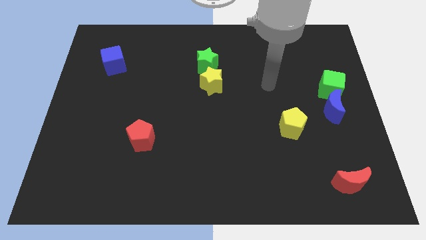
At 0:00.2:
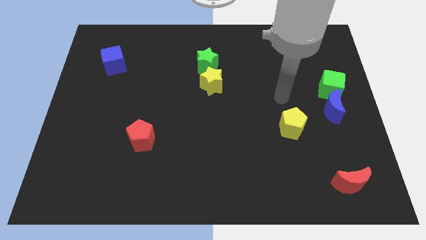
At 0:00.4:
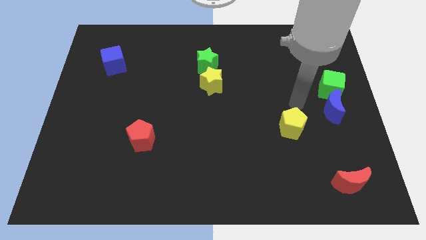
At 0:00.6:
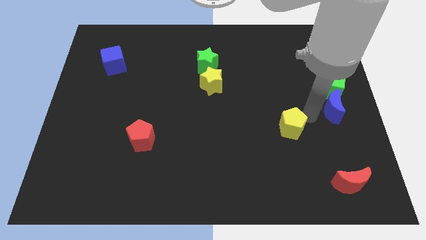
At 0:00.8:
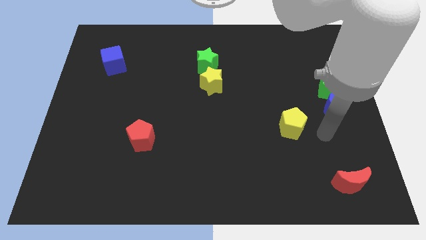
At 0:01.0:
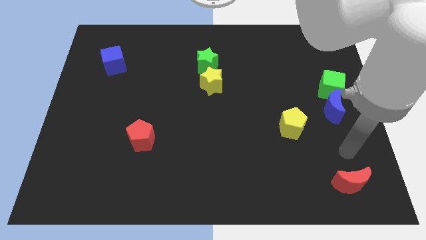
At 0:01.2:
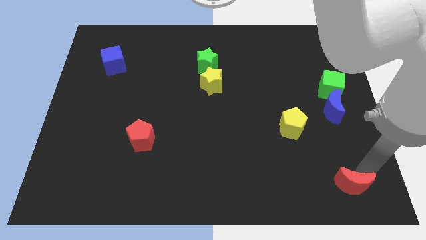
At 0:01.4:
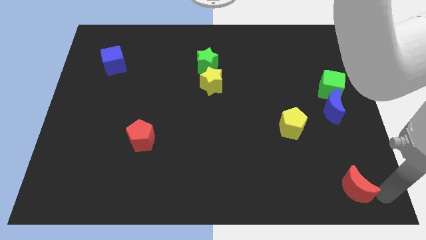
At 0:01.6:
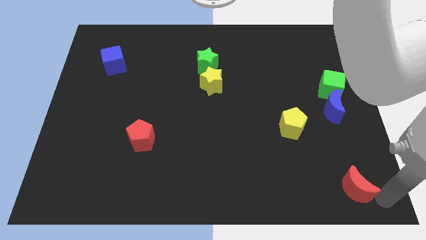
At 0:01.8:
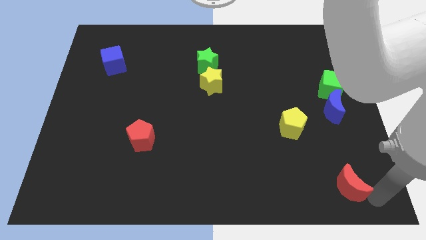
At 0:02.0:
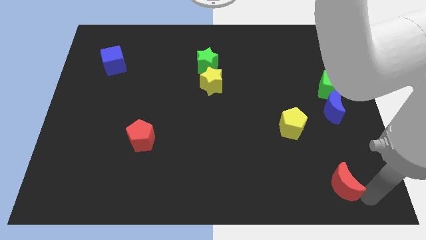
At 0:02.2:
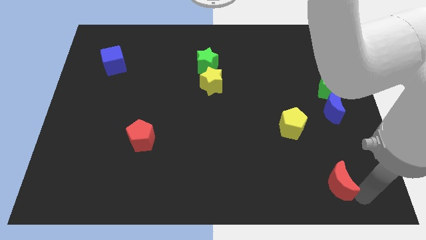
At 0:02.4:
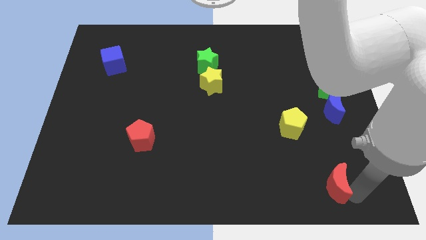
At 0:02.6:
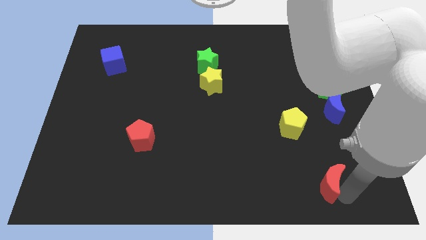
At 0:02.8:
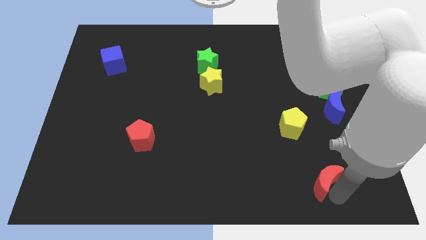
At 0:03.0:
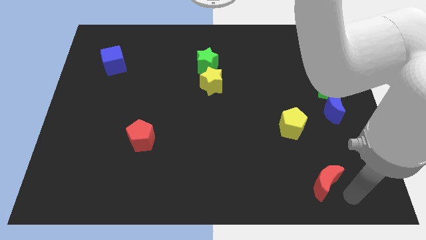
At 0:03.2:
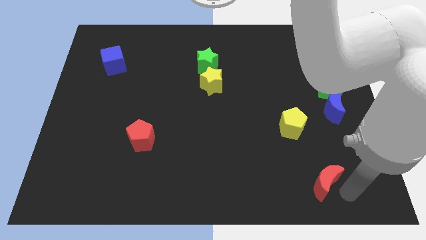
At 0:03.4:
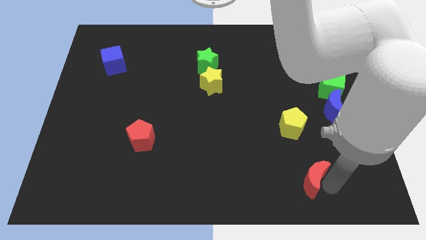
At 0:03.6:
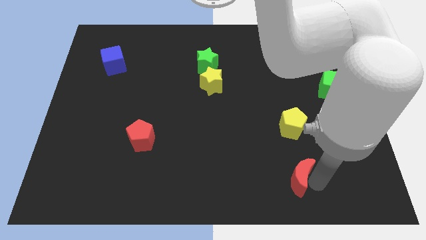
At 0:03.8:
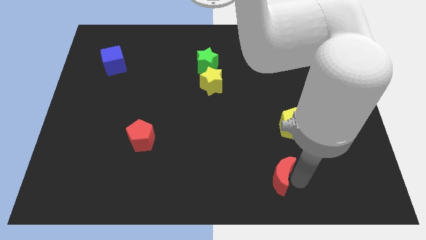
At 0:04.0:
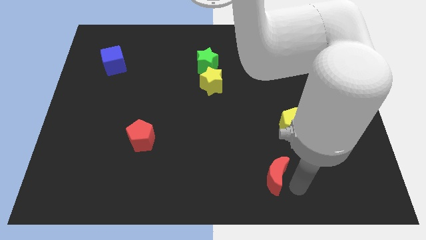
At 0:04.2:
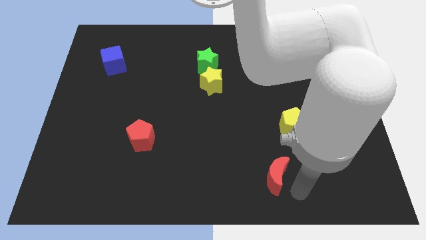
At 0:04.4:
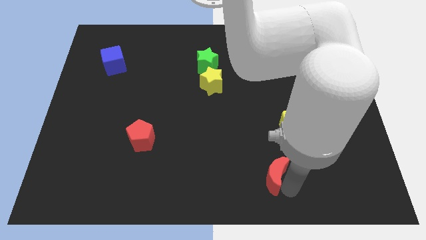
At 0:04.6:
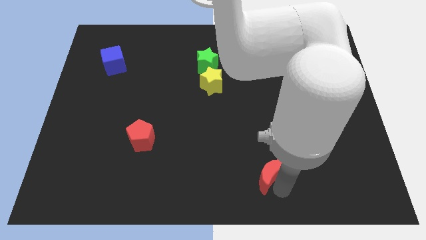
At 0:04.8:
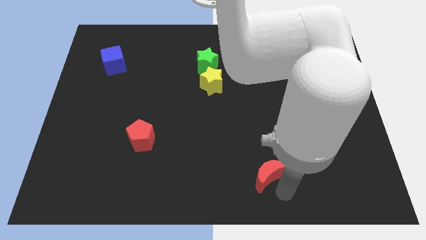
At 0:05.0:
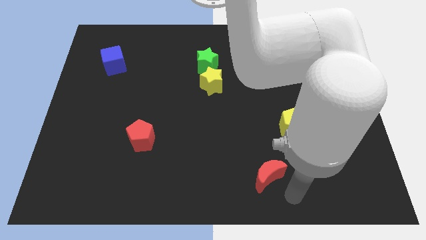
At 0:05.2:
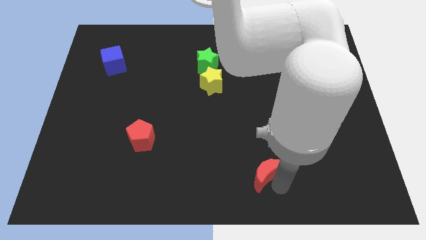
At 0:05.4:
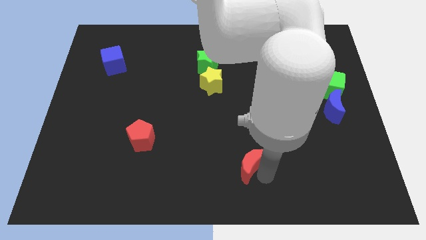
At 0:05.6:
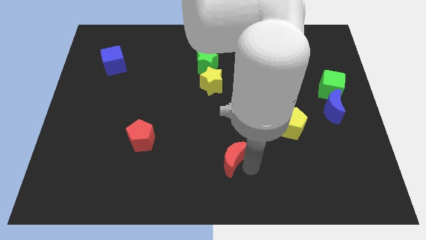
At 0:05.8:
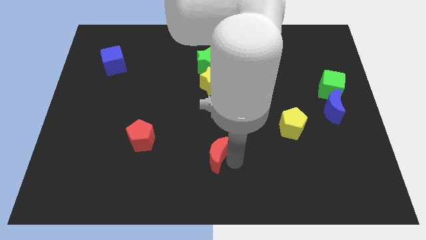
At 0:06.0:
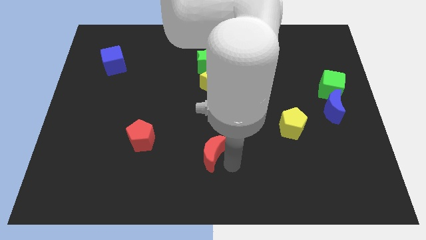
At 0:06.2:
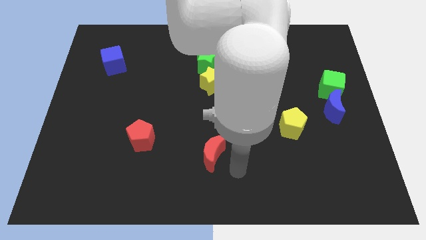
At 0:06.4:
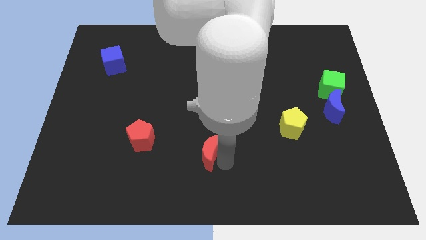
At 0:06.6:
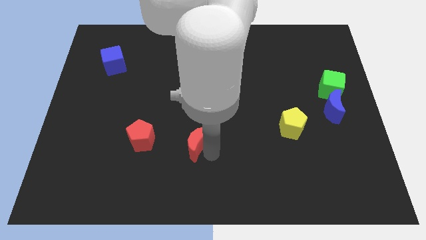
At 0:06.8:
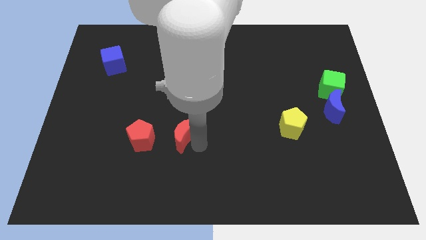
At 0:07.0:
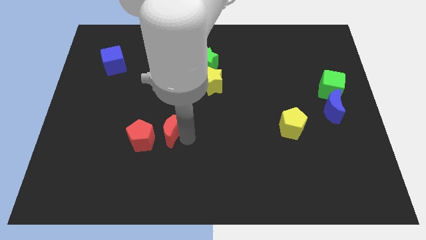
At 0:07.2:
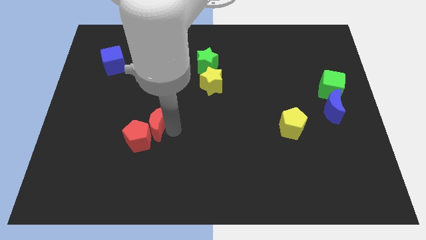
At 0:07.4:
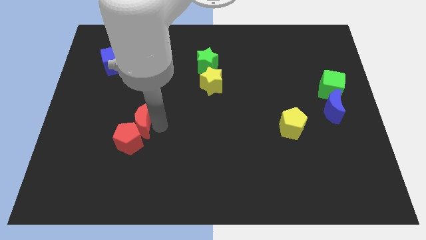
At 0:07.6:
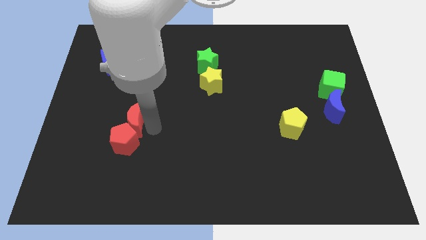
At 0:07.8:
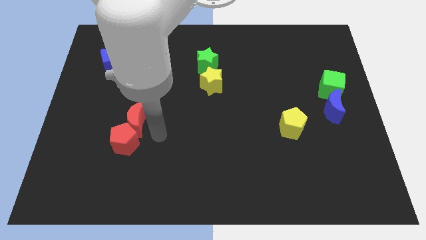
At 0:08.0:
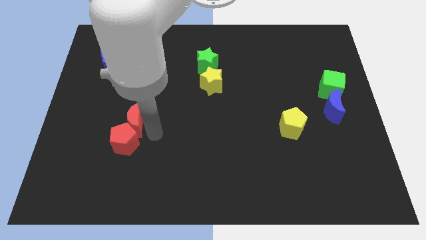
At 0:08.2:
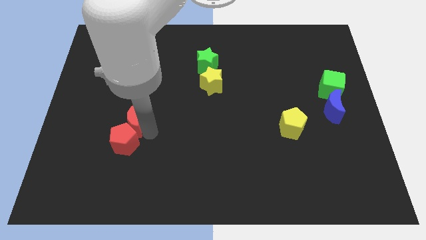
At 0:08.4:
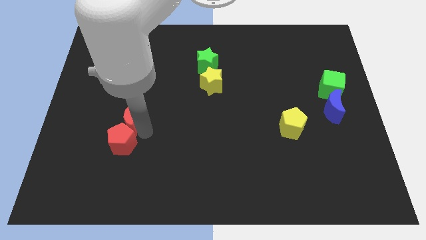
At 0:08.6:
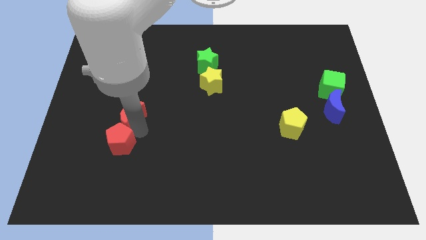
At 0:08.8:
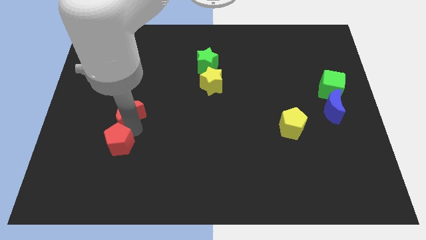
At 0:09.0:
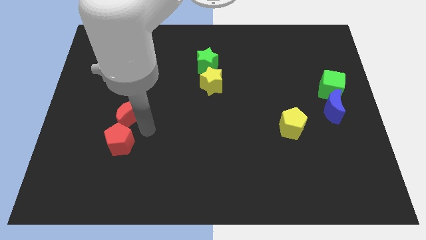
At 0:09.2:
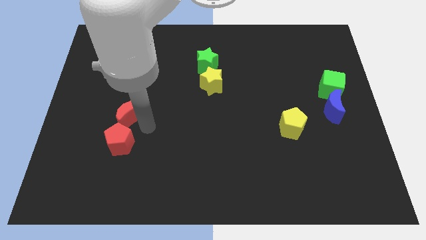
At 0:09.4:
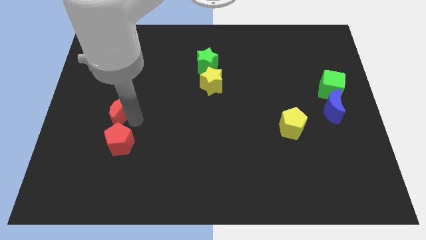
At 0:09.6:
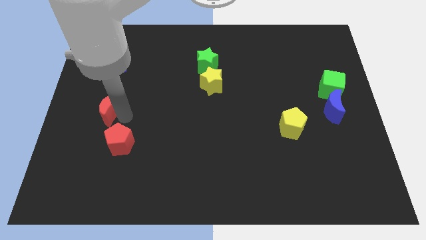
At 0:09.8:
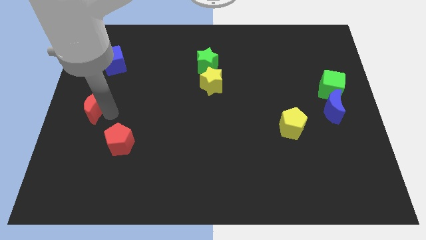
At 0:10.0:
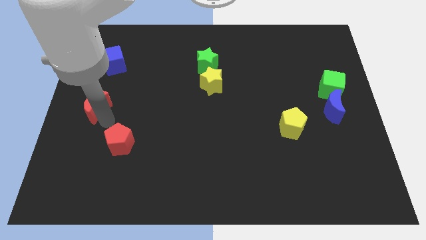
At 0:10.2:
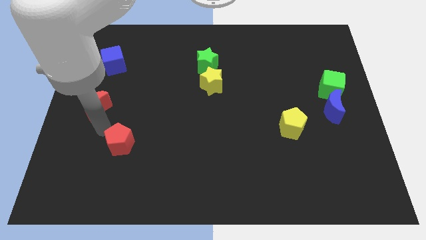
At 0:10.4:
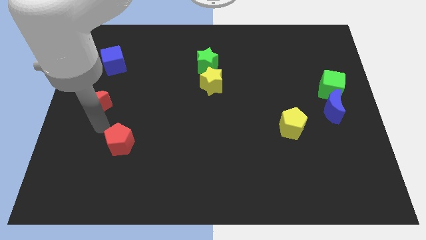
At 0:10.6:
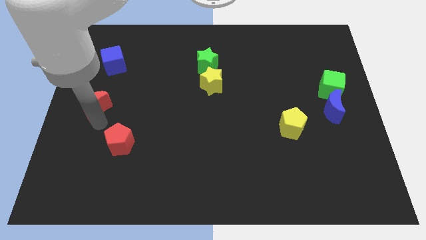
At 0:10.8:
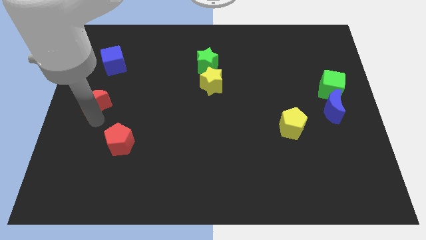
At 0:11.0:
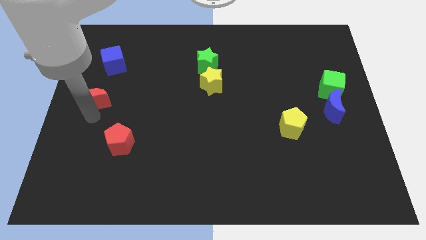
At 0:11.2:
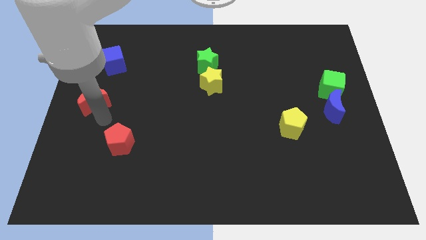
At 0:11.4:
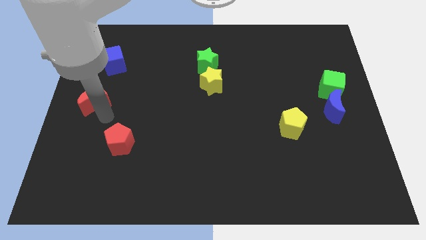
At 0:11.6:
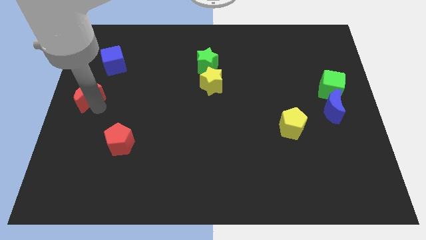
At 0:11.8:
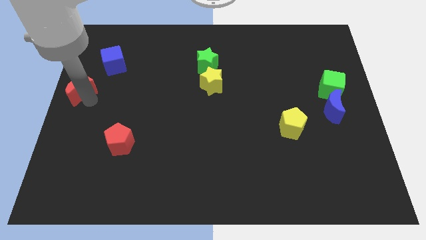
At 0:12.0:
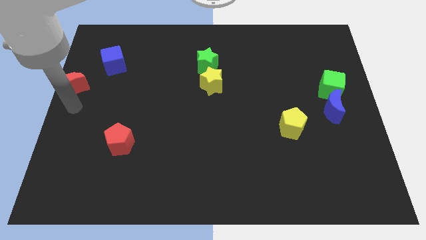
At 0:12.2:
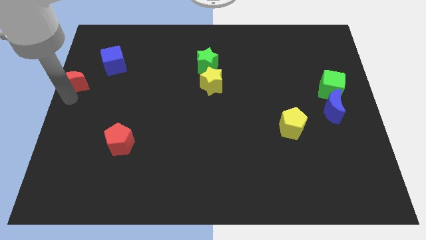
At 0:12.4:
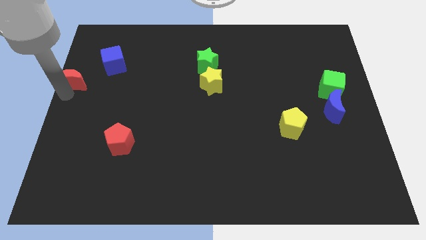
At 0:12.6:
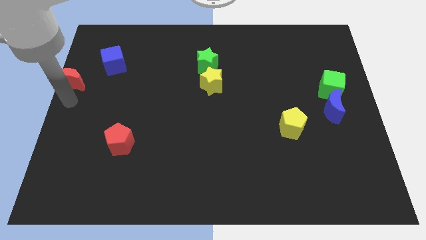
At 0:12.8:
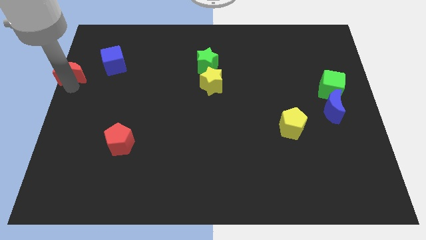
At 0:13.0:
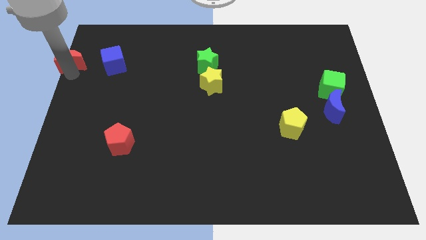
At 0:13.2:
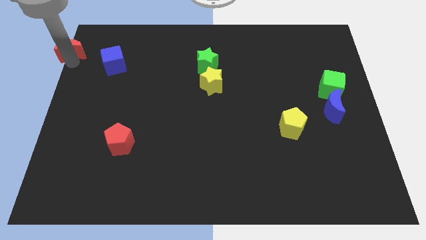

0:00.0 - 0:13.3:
push the red moon to the top left

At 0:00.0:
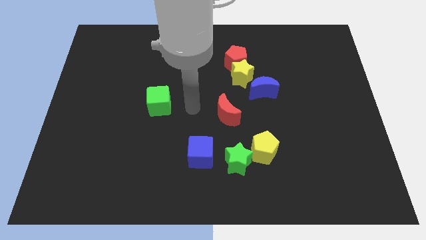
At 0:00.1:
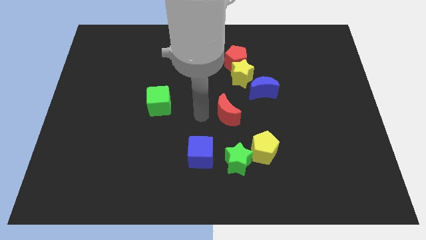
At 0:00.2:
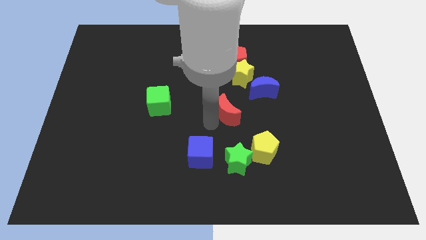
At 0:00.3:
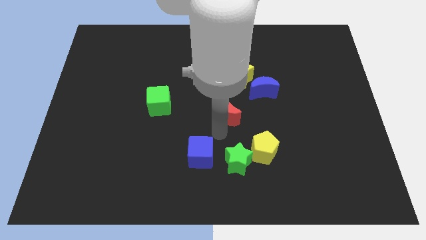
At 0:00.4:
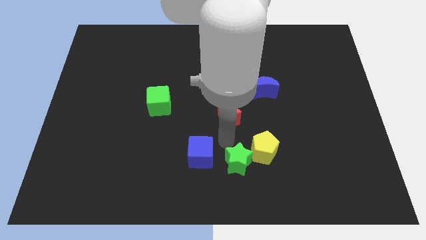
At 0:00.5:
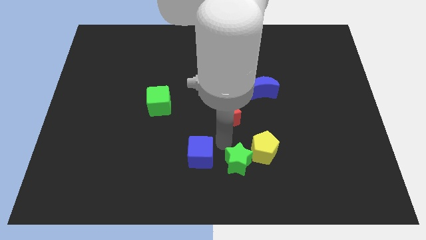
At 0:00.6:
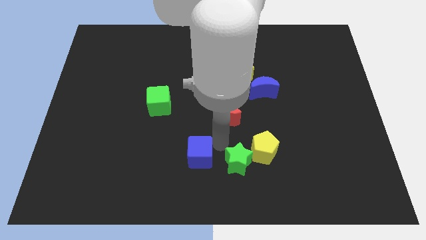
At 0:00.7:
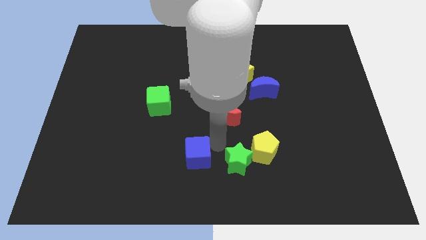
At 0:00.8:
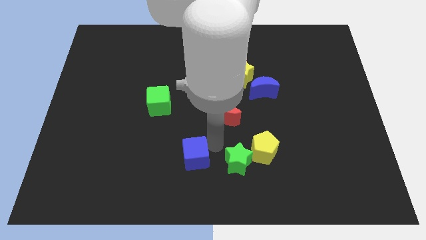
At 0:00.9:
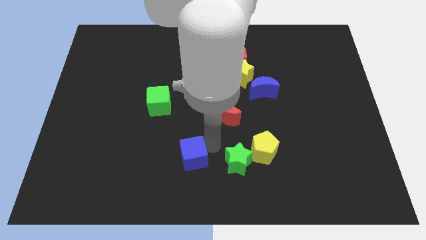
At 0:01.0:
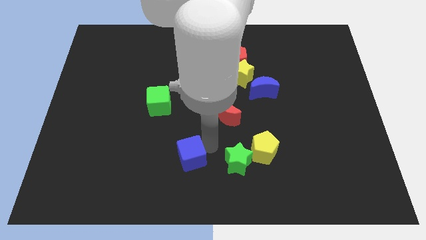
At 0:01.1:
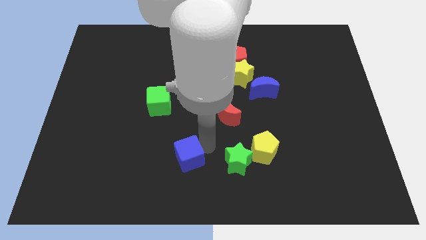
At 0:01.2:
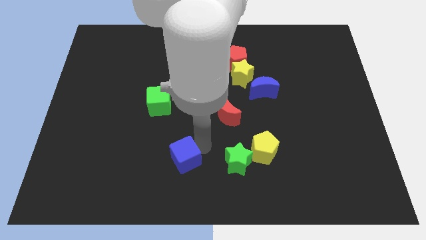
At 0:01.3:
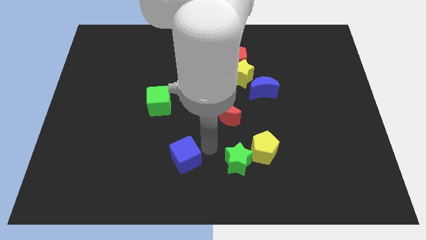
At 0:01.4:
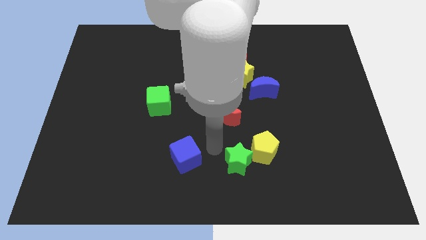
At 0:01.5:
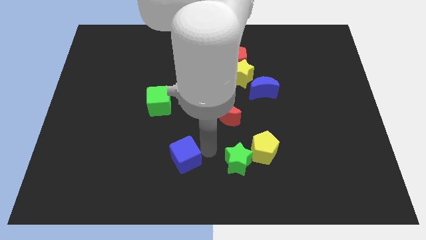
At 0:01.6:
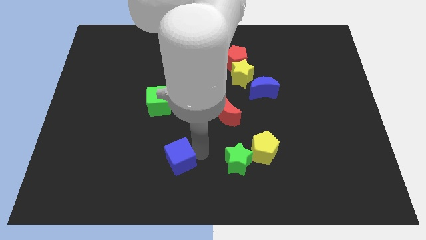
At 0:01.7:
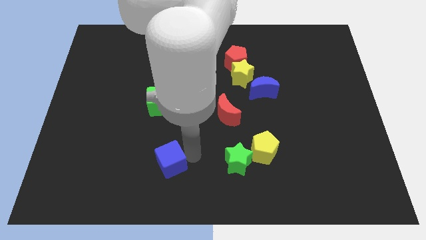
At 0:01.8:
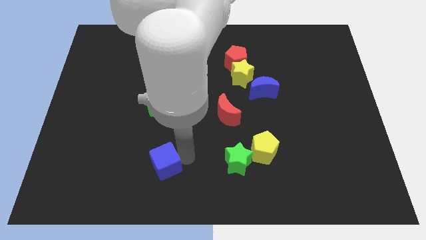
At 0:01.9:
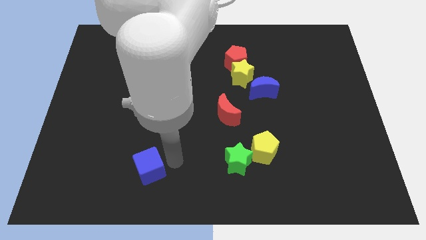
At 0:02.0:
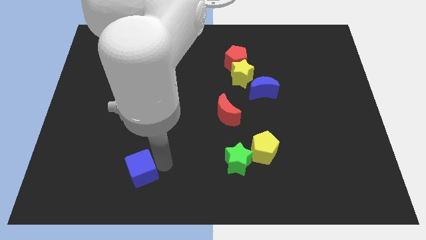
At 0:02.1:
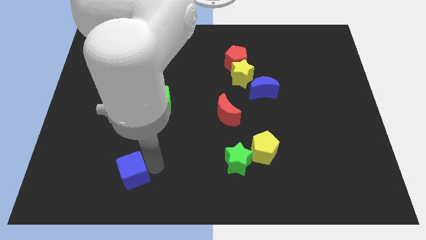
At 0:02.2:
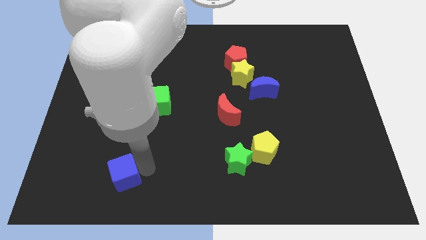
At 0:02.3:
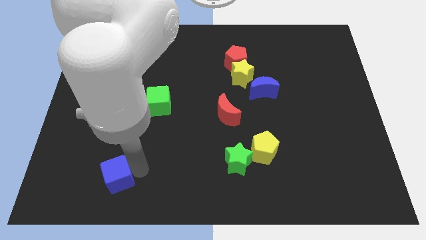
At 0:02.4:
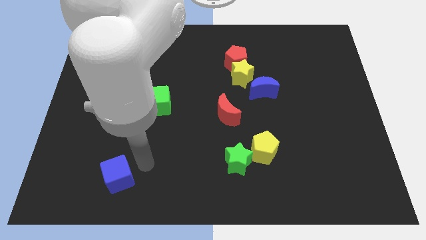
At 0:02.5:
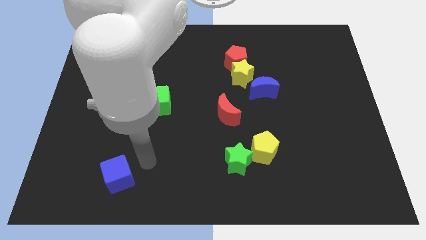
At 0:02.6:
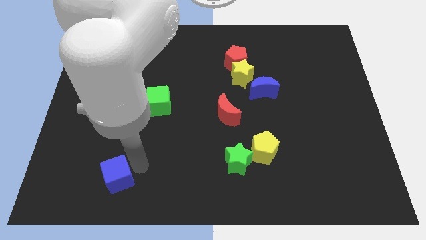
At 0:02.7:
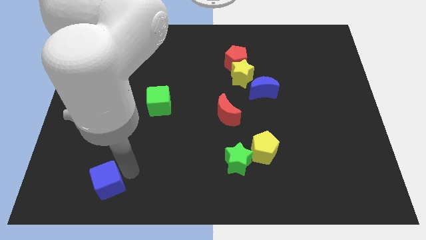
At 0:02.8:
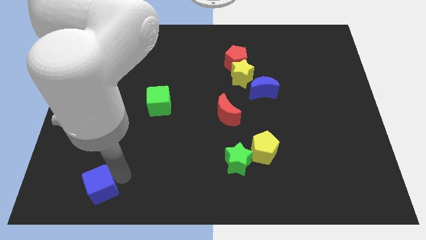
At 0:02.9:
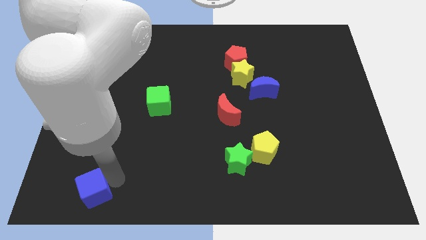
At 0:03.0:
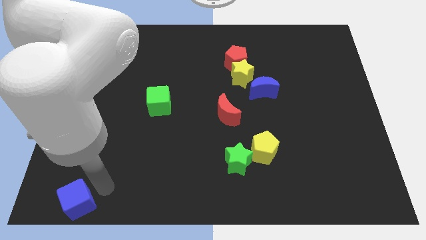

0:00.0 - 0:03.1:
put the blue cube to the bottom left corner
